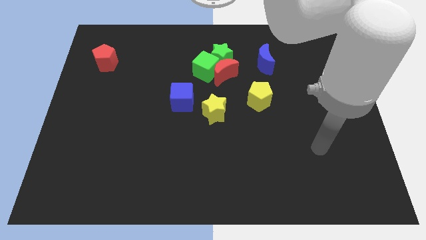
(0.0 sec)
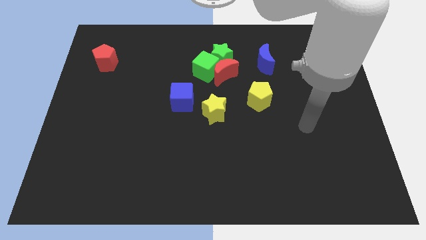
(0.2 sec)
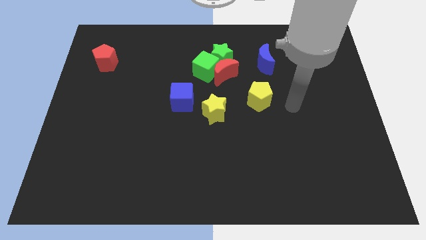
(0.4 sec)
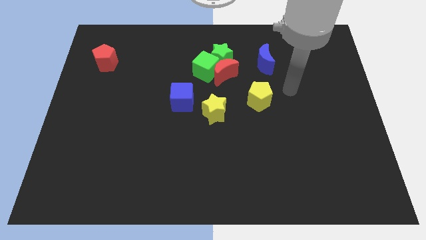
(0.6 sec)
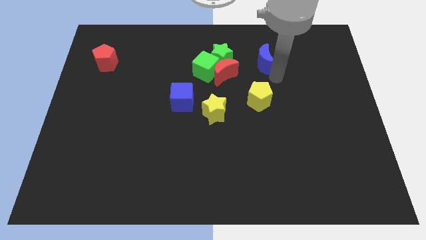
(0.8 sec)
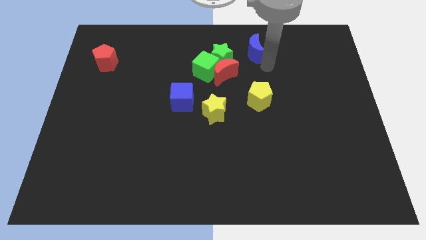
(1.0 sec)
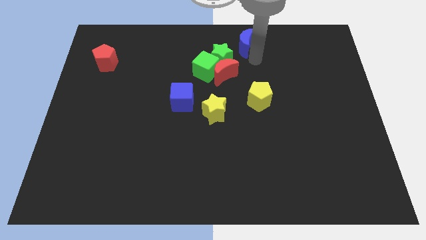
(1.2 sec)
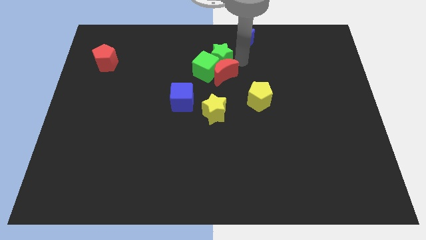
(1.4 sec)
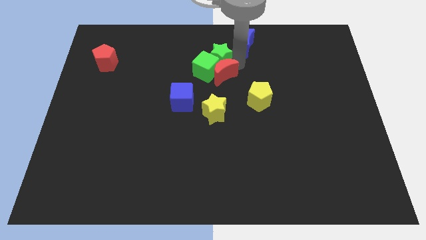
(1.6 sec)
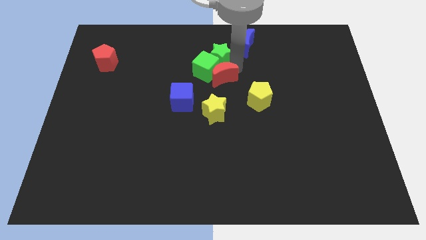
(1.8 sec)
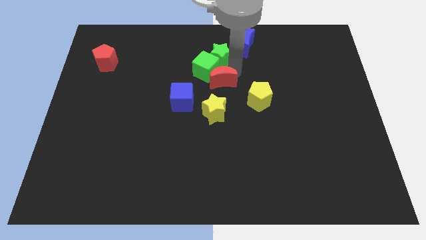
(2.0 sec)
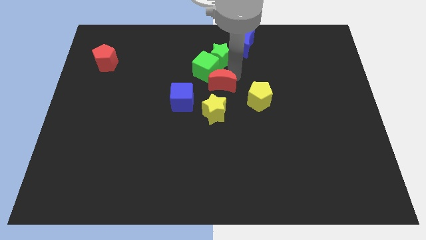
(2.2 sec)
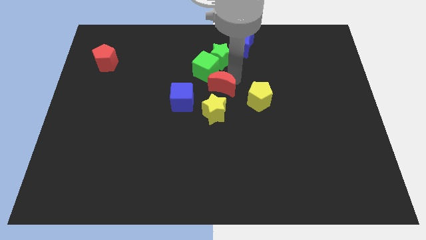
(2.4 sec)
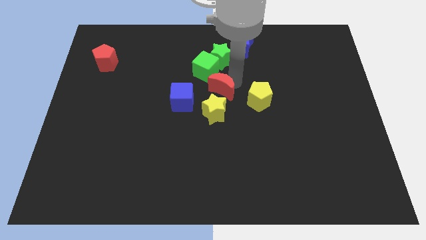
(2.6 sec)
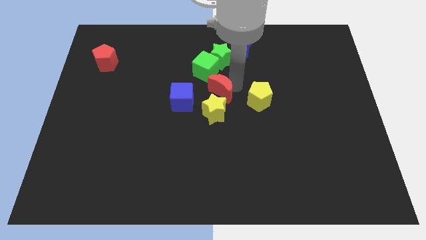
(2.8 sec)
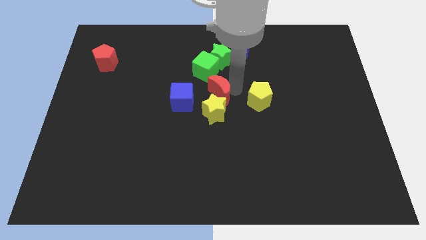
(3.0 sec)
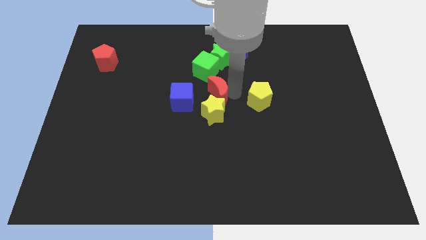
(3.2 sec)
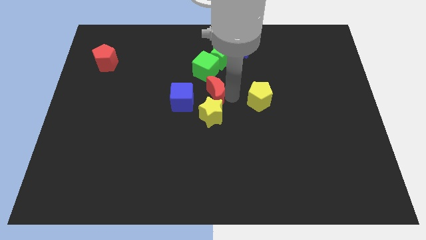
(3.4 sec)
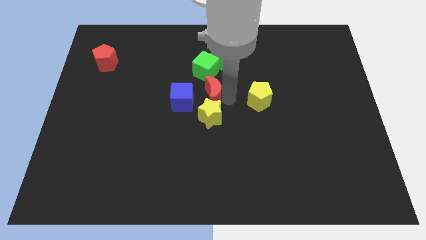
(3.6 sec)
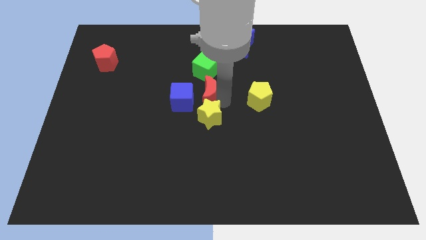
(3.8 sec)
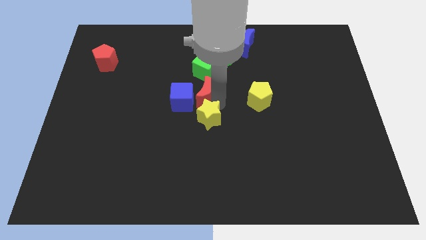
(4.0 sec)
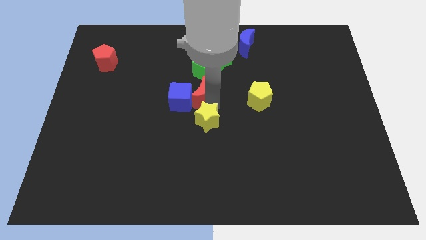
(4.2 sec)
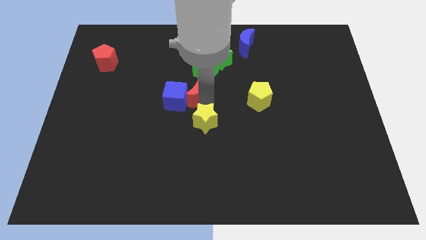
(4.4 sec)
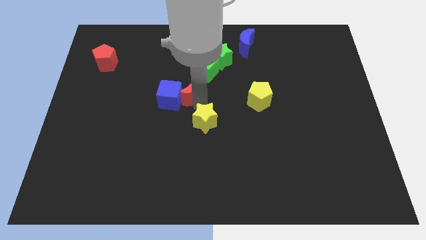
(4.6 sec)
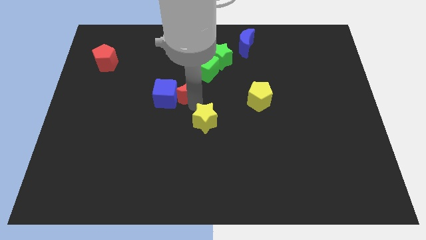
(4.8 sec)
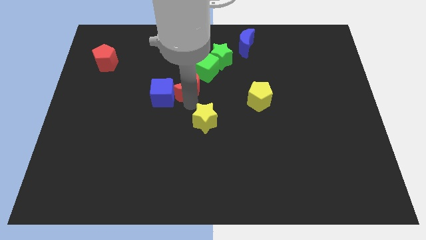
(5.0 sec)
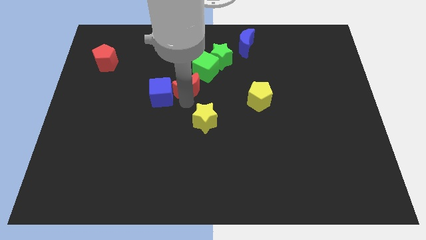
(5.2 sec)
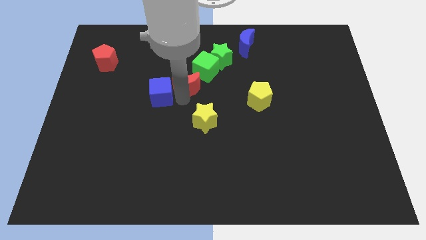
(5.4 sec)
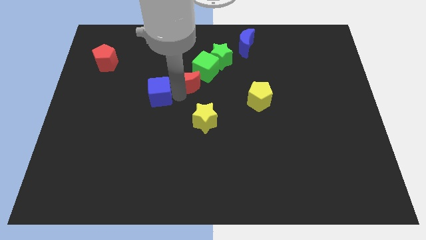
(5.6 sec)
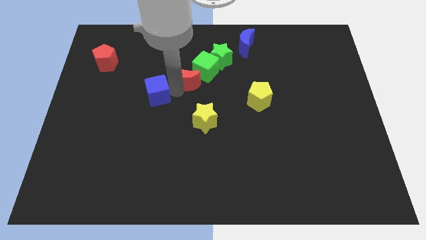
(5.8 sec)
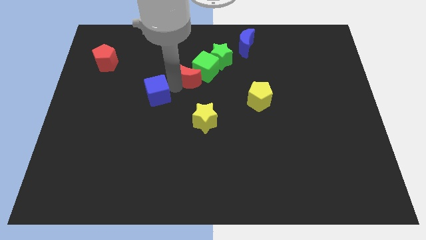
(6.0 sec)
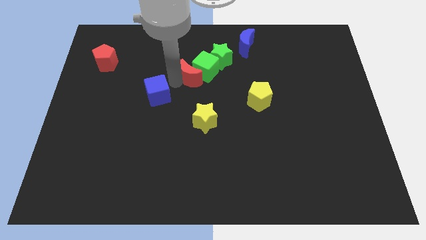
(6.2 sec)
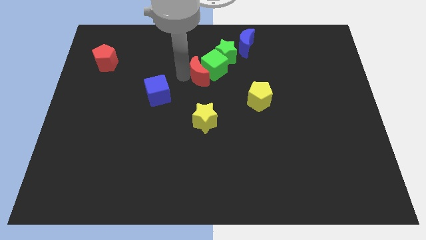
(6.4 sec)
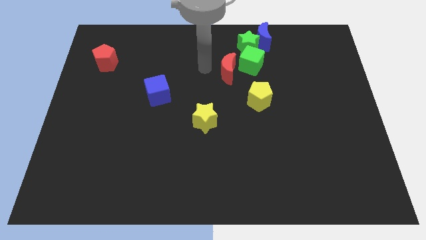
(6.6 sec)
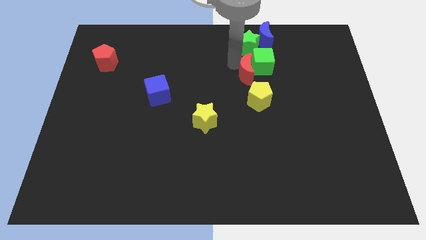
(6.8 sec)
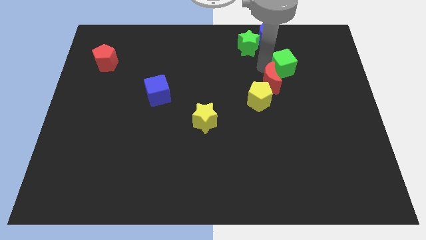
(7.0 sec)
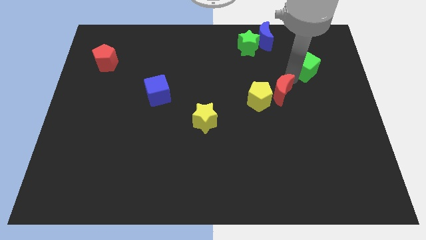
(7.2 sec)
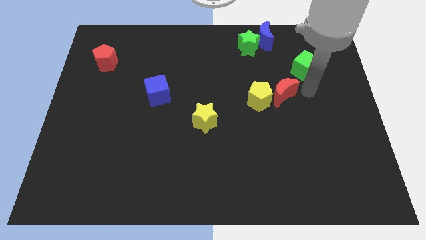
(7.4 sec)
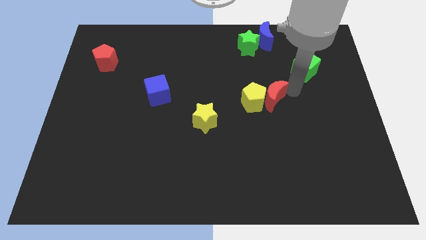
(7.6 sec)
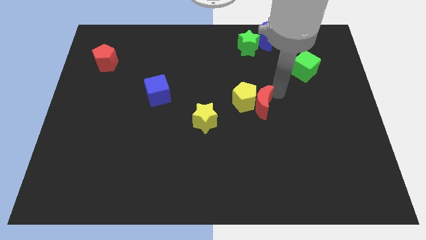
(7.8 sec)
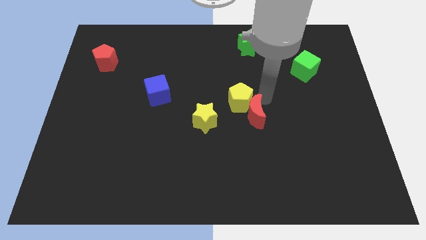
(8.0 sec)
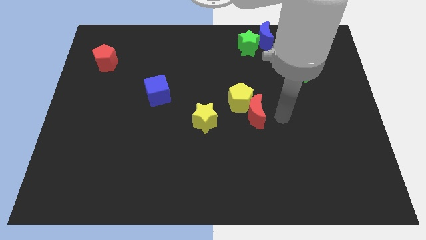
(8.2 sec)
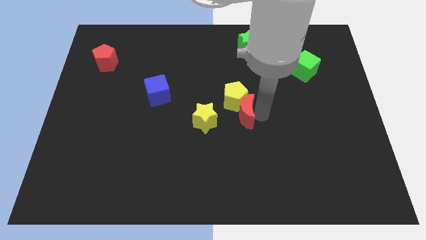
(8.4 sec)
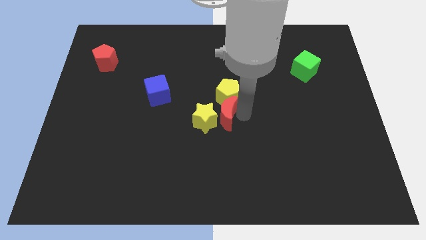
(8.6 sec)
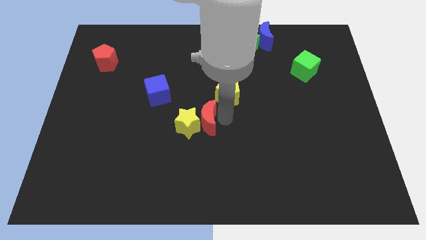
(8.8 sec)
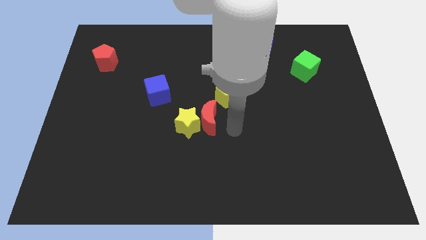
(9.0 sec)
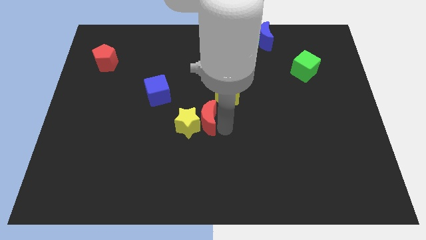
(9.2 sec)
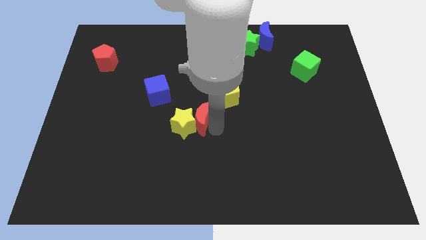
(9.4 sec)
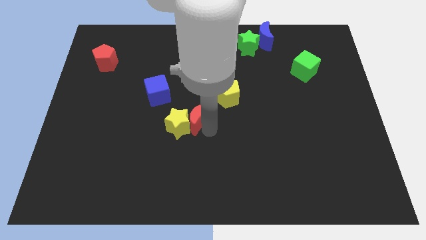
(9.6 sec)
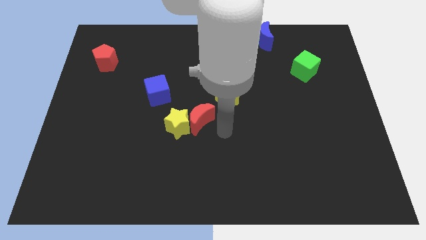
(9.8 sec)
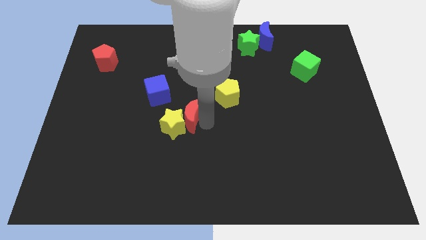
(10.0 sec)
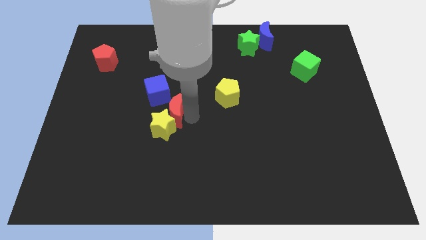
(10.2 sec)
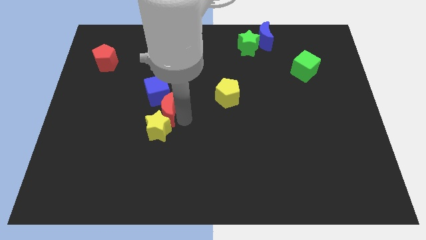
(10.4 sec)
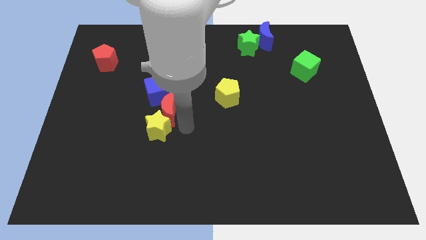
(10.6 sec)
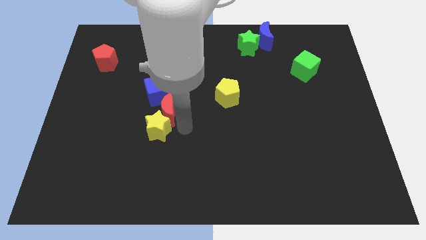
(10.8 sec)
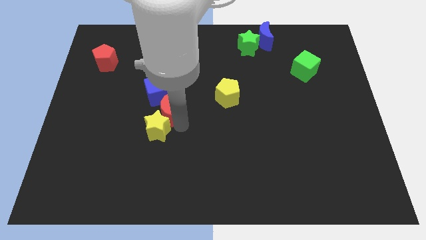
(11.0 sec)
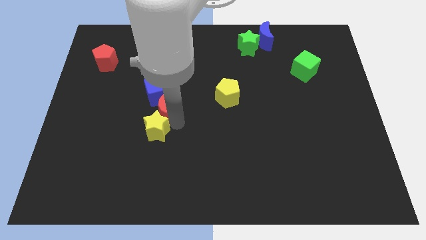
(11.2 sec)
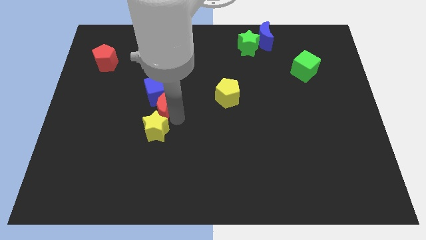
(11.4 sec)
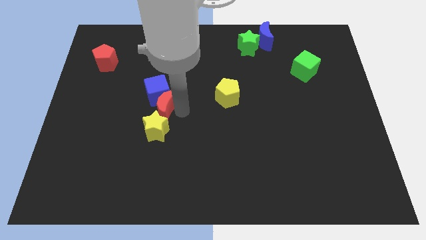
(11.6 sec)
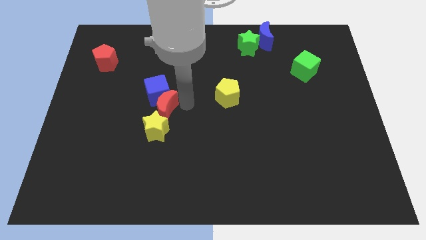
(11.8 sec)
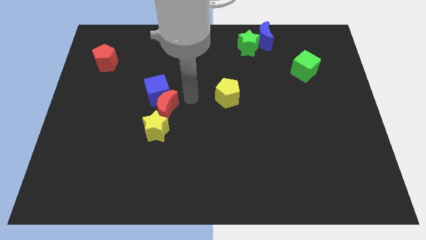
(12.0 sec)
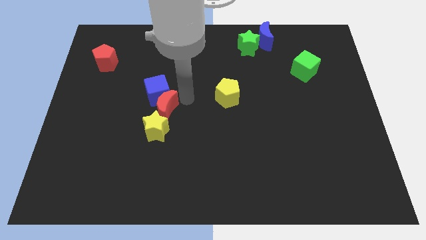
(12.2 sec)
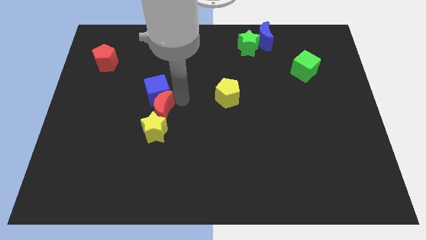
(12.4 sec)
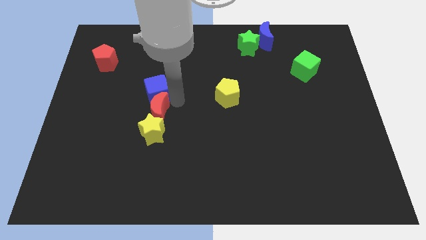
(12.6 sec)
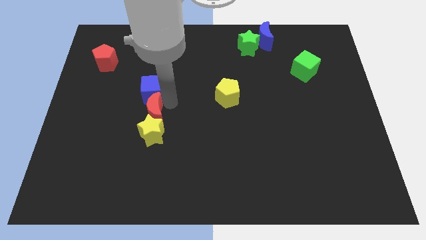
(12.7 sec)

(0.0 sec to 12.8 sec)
slide the red moon down and to the left diagonally

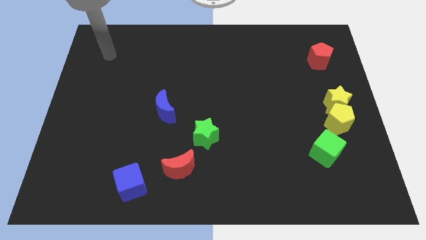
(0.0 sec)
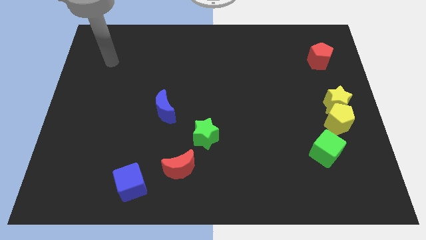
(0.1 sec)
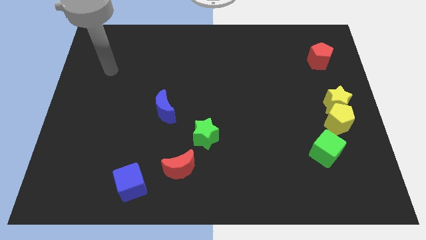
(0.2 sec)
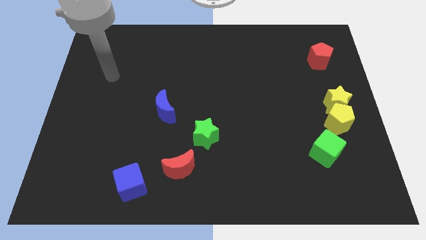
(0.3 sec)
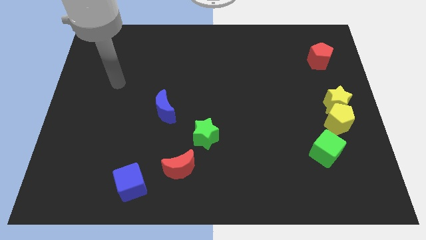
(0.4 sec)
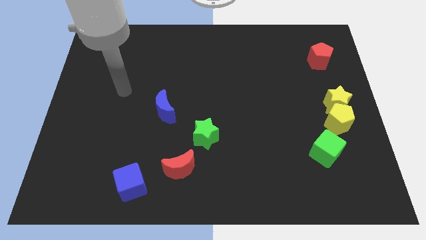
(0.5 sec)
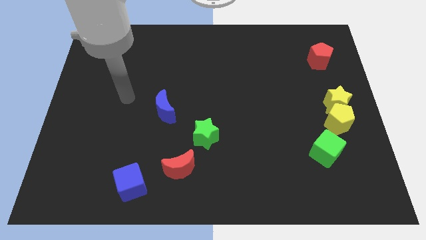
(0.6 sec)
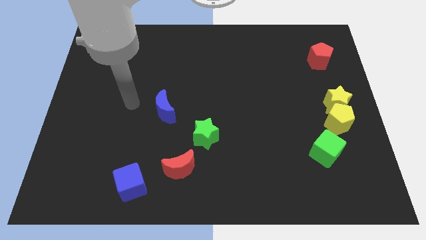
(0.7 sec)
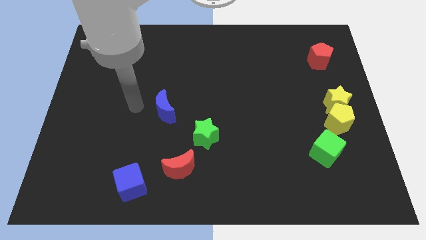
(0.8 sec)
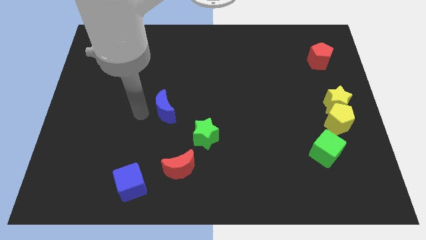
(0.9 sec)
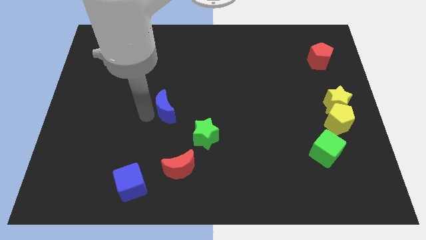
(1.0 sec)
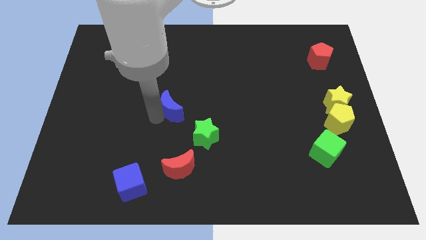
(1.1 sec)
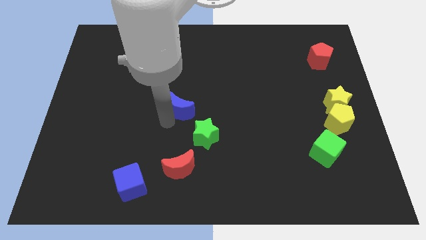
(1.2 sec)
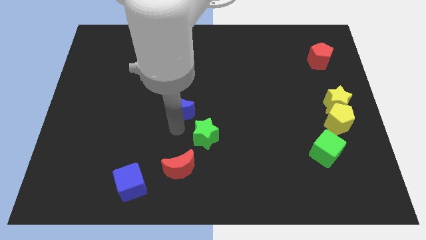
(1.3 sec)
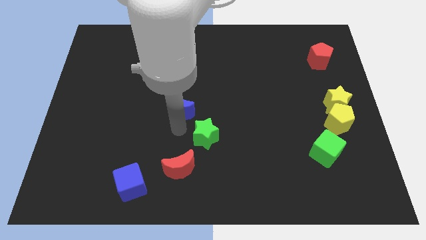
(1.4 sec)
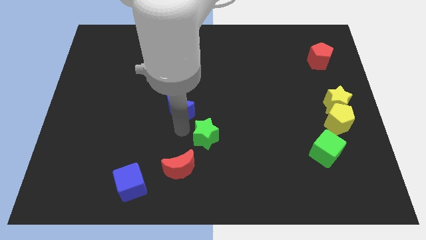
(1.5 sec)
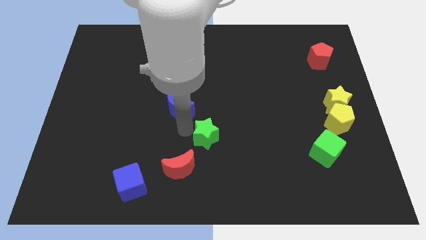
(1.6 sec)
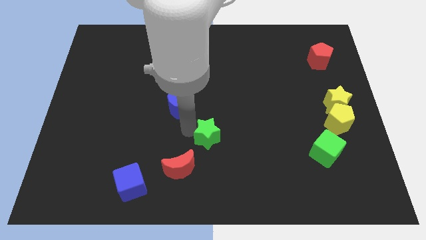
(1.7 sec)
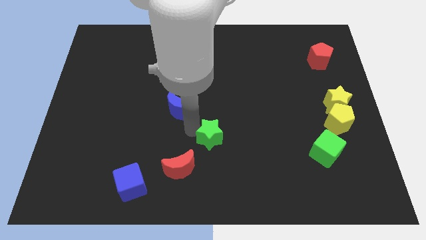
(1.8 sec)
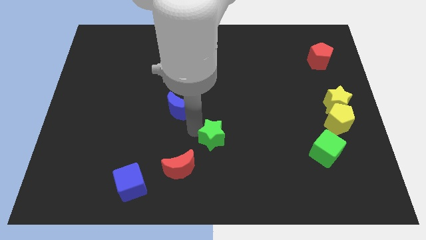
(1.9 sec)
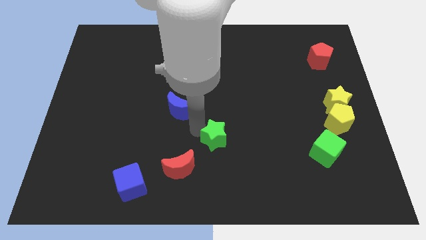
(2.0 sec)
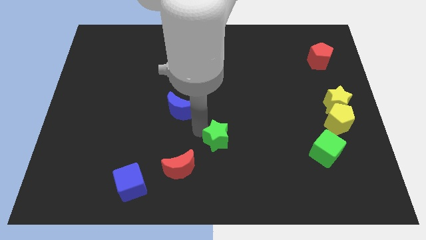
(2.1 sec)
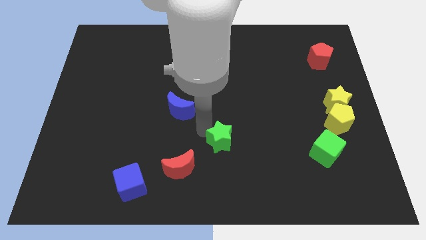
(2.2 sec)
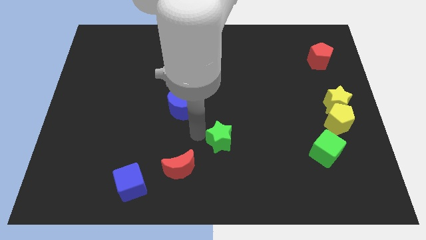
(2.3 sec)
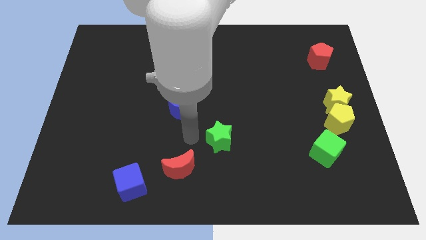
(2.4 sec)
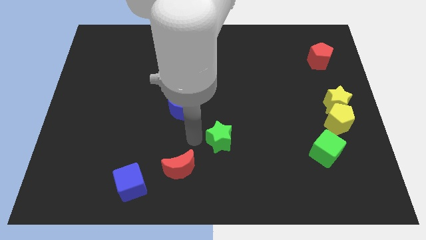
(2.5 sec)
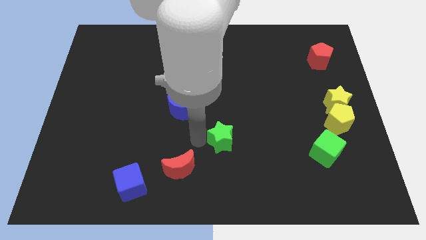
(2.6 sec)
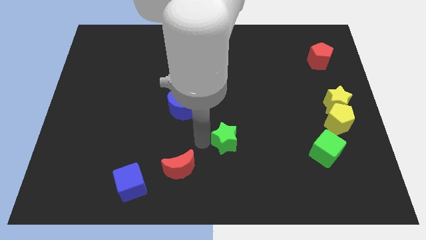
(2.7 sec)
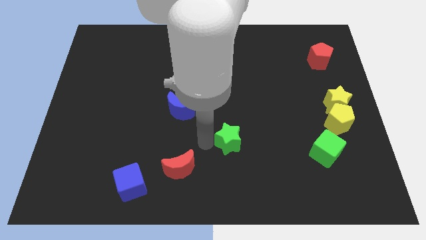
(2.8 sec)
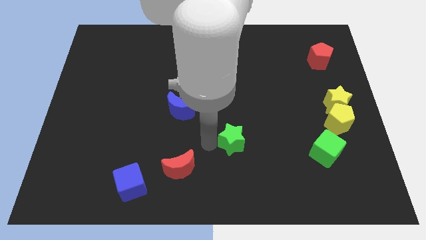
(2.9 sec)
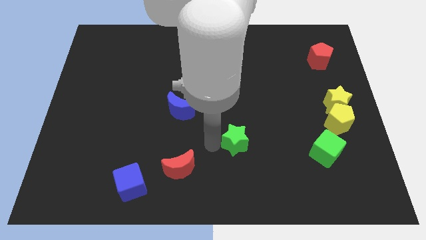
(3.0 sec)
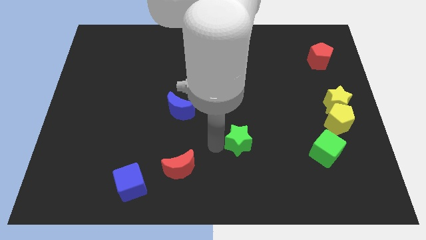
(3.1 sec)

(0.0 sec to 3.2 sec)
slide the green star slightly right
